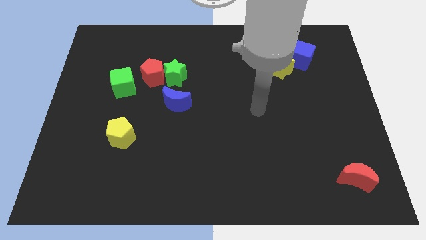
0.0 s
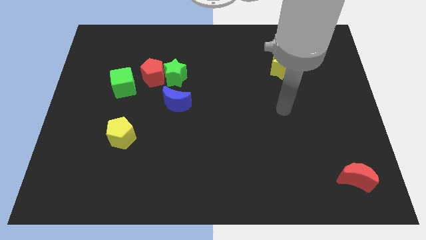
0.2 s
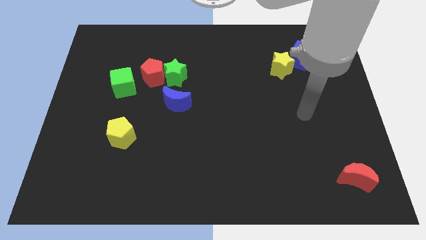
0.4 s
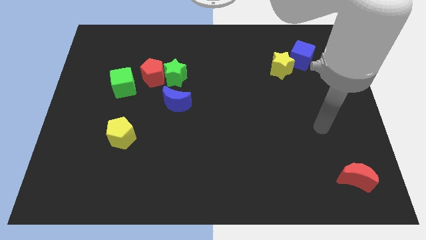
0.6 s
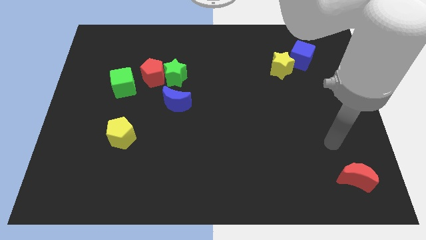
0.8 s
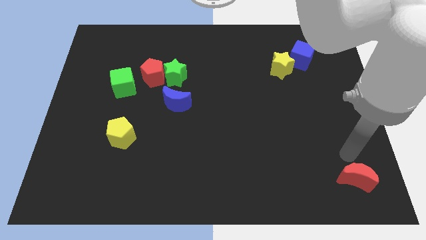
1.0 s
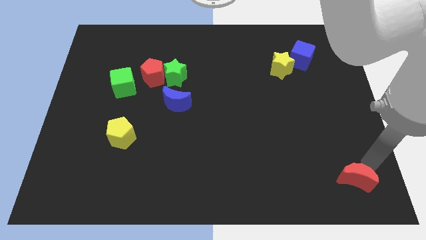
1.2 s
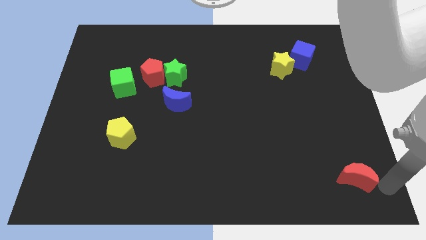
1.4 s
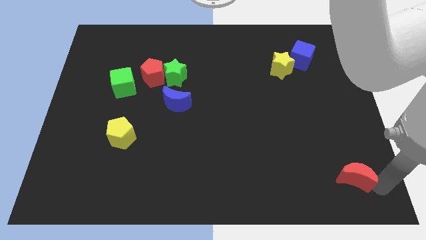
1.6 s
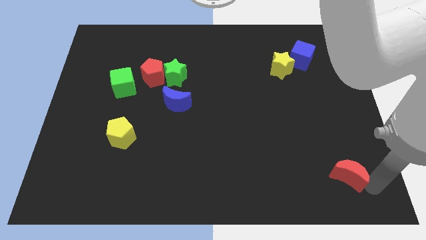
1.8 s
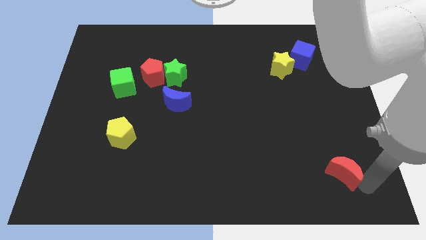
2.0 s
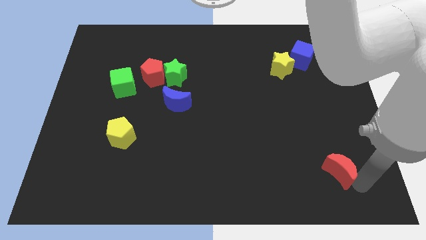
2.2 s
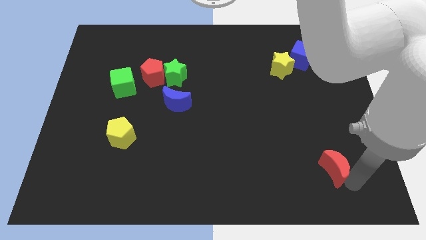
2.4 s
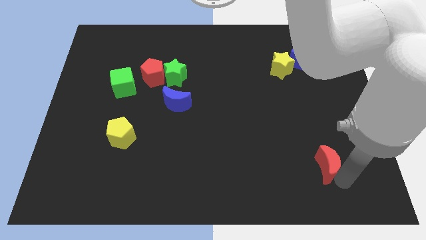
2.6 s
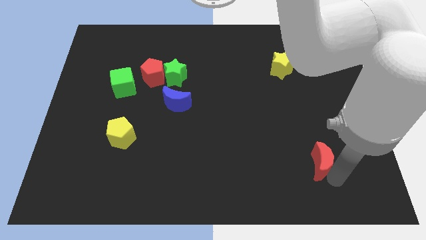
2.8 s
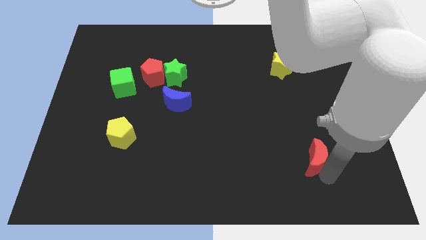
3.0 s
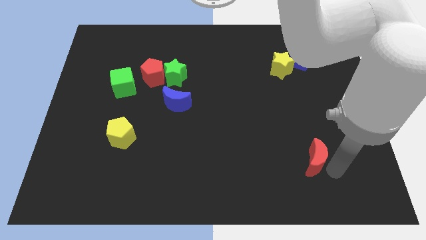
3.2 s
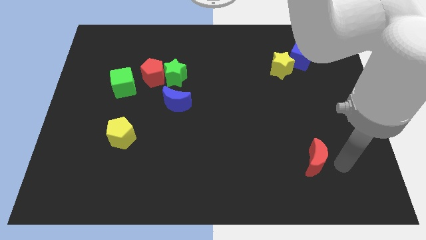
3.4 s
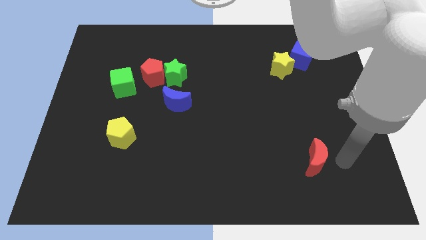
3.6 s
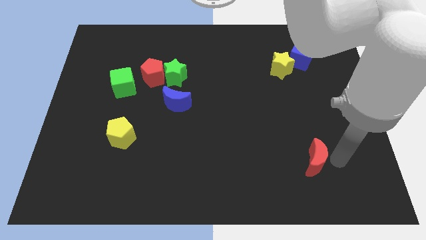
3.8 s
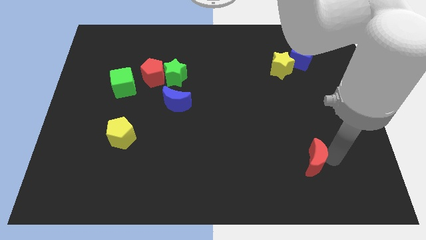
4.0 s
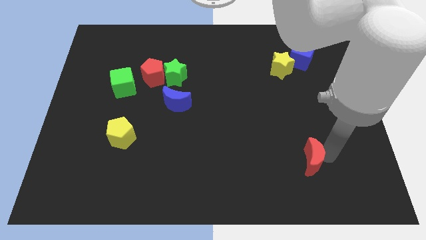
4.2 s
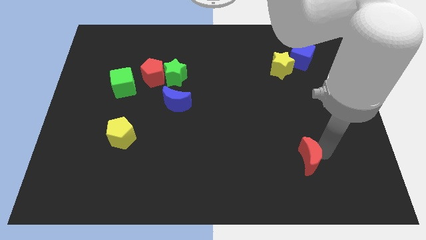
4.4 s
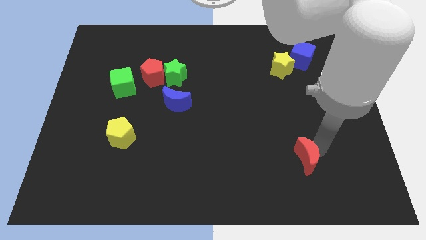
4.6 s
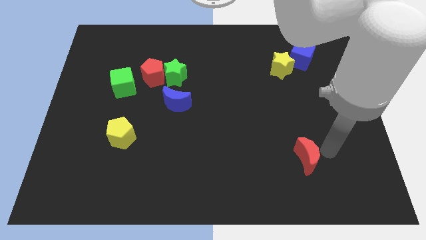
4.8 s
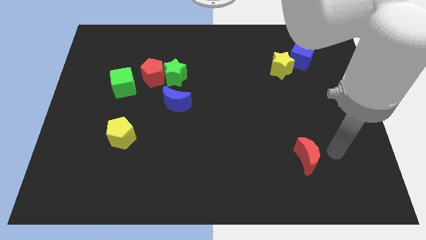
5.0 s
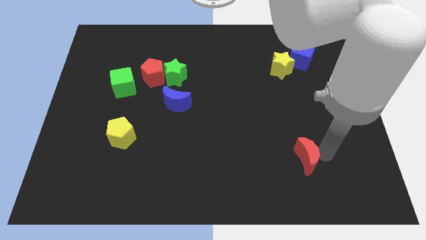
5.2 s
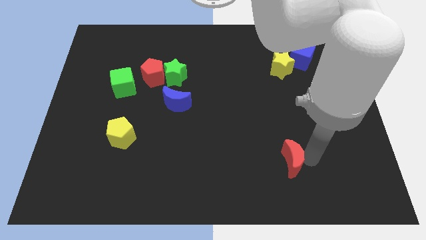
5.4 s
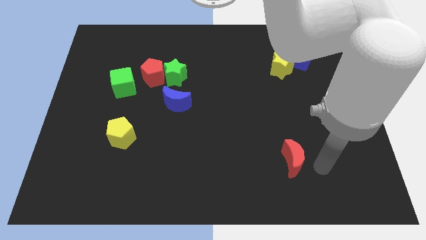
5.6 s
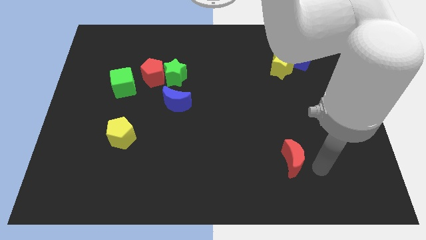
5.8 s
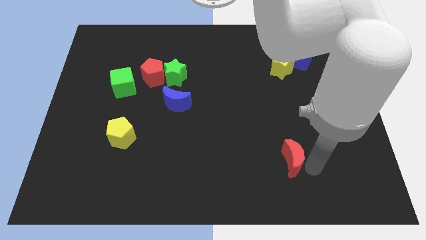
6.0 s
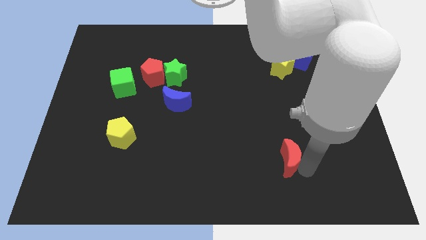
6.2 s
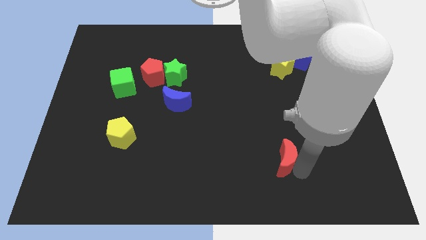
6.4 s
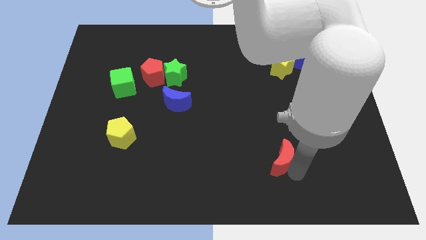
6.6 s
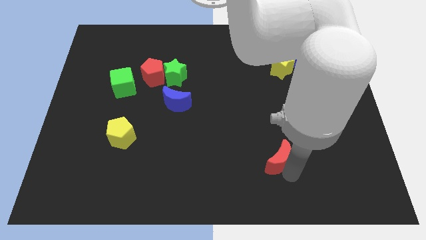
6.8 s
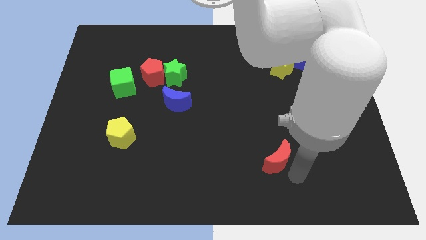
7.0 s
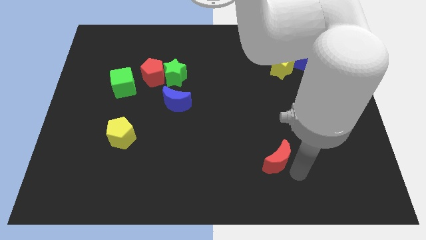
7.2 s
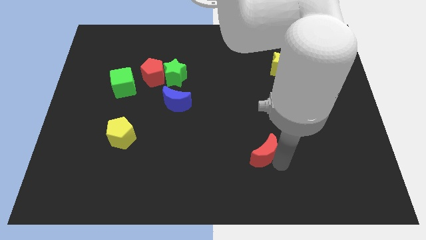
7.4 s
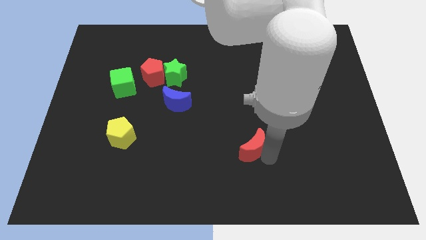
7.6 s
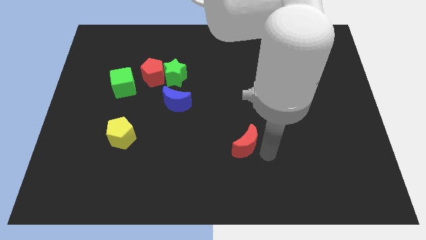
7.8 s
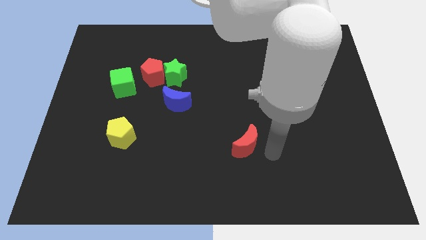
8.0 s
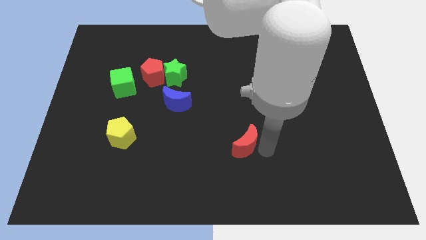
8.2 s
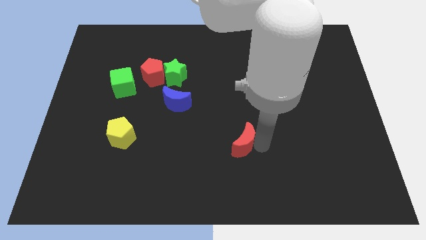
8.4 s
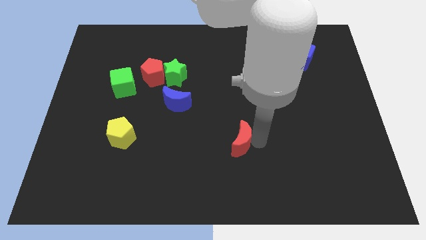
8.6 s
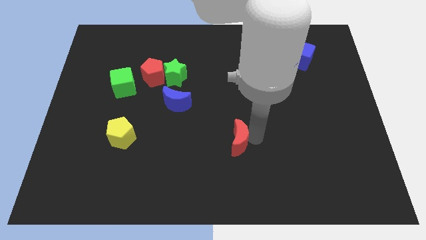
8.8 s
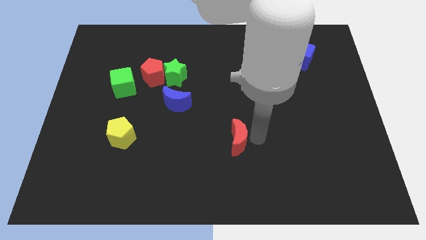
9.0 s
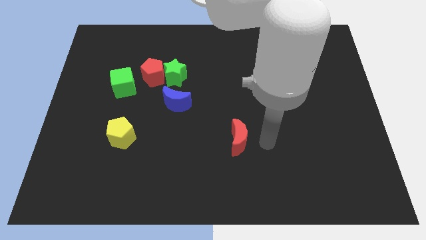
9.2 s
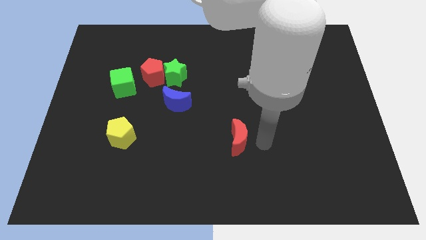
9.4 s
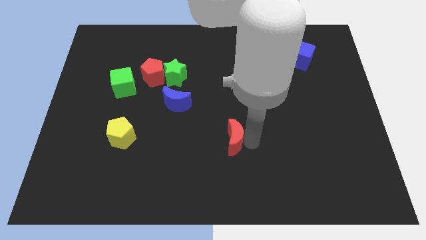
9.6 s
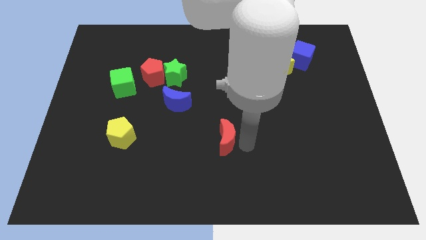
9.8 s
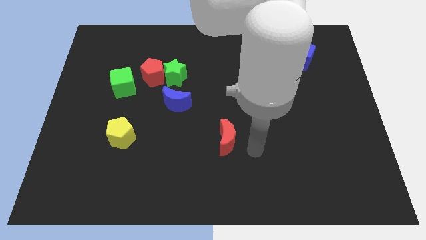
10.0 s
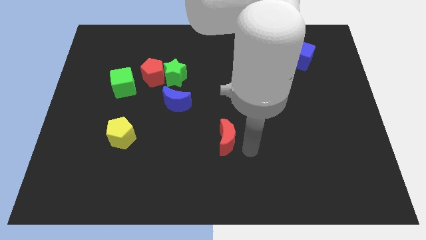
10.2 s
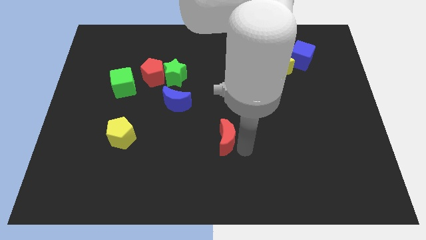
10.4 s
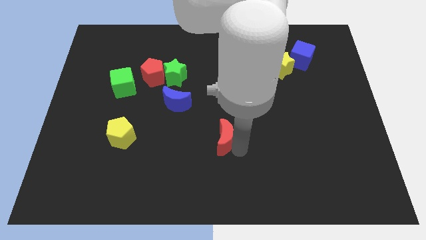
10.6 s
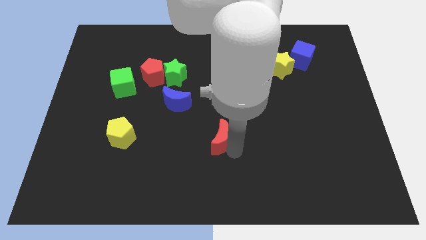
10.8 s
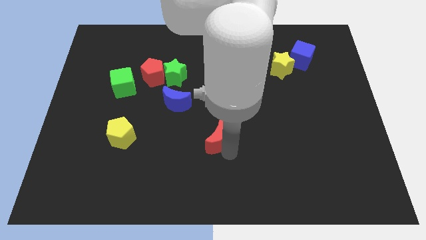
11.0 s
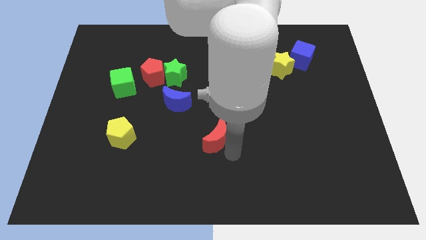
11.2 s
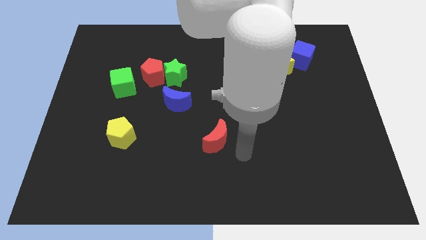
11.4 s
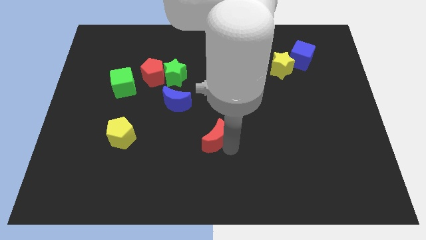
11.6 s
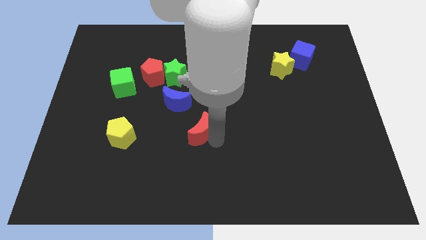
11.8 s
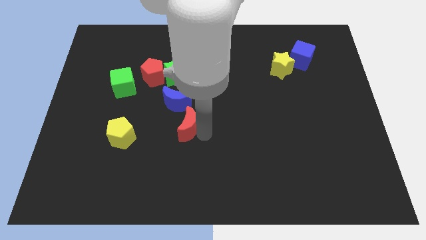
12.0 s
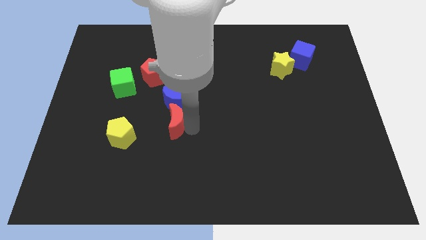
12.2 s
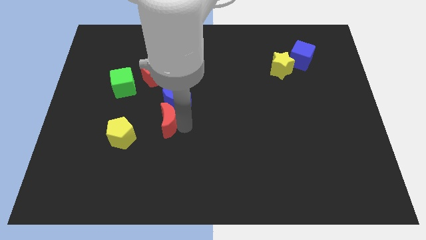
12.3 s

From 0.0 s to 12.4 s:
slide the red moon to the top right side of the yellow pentagon

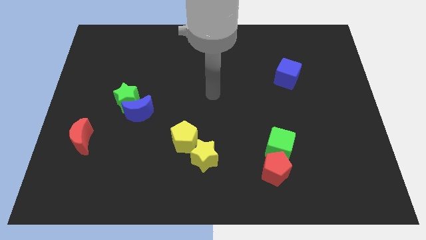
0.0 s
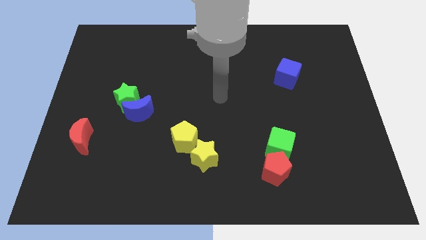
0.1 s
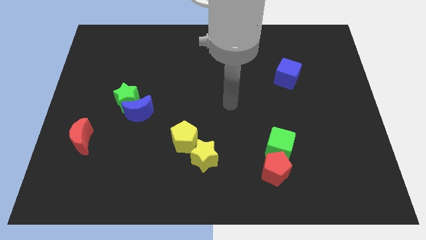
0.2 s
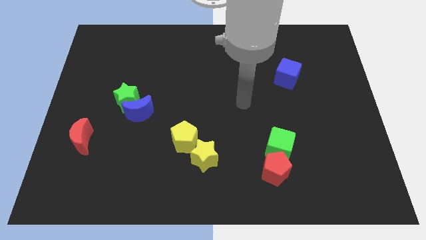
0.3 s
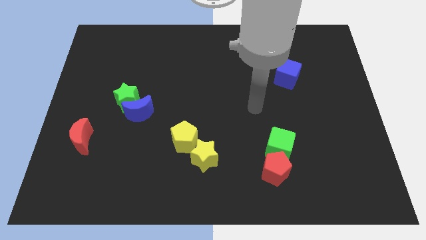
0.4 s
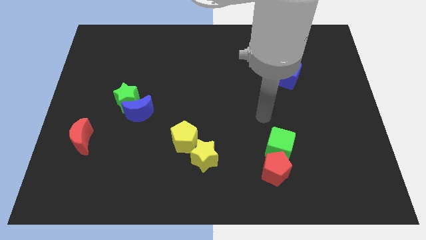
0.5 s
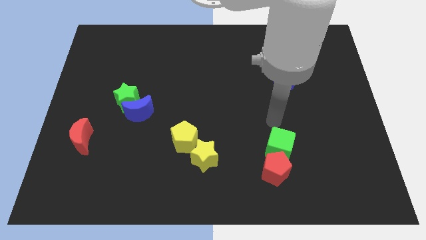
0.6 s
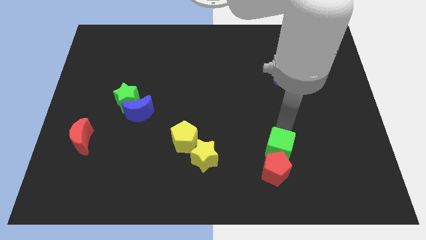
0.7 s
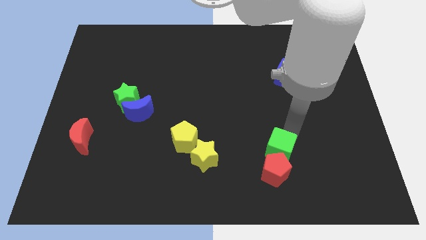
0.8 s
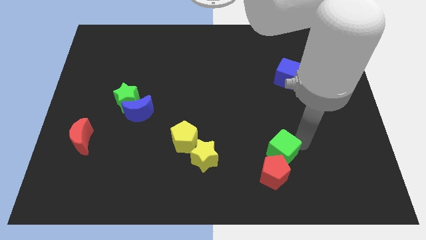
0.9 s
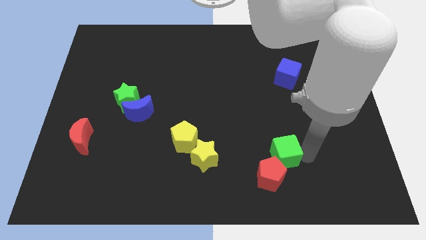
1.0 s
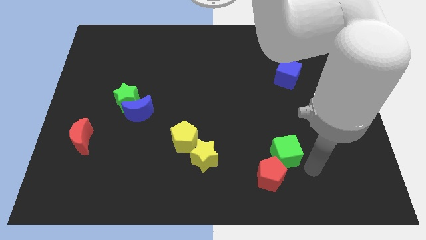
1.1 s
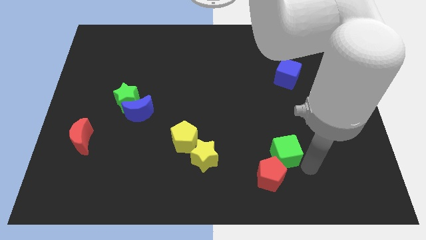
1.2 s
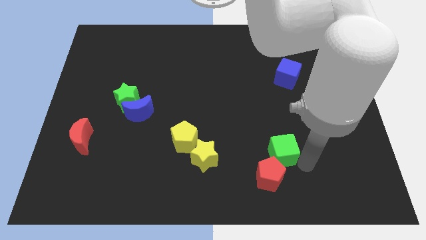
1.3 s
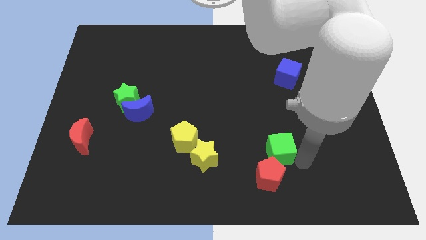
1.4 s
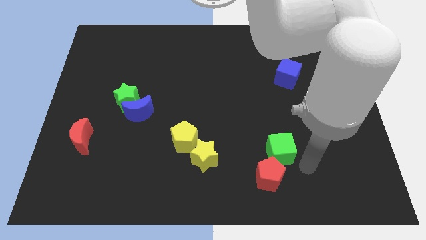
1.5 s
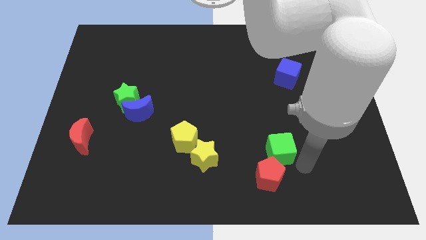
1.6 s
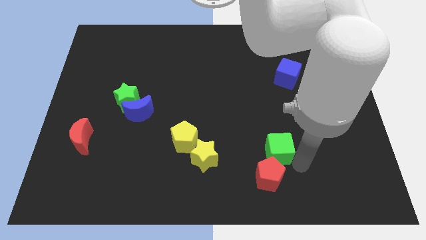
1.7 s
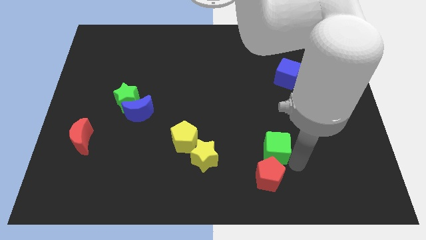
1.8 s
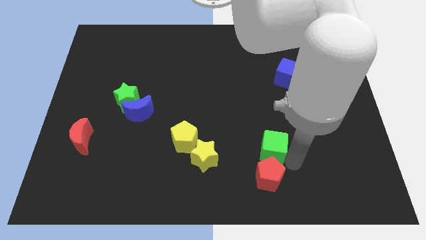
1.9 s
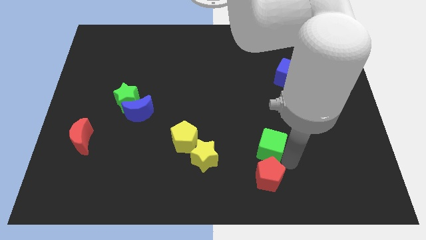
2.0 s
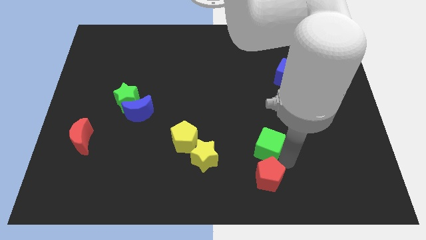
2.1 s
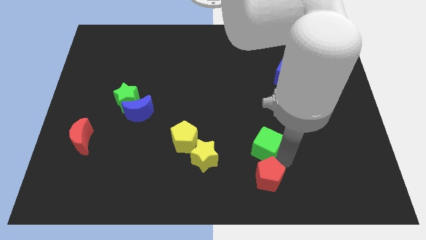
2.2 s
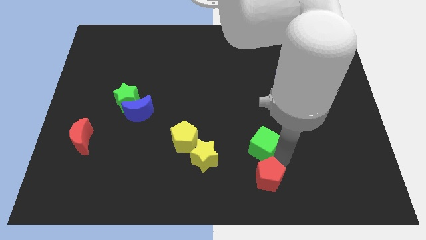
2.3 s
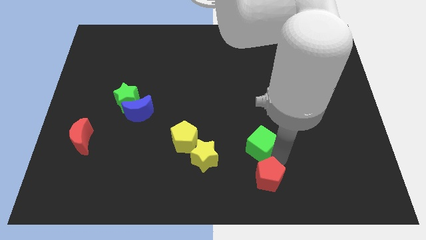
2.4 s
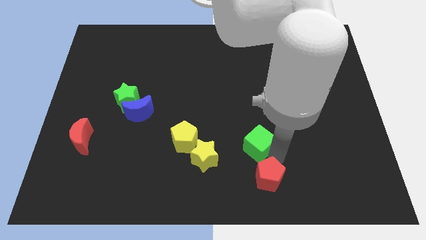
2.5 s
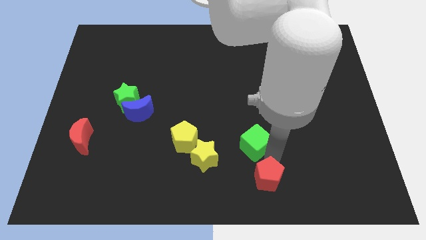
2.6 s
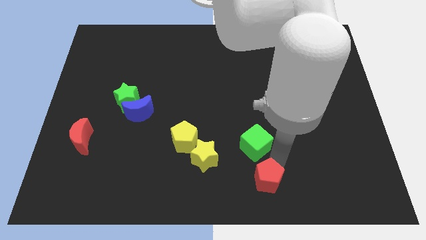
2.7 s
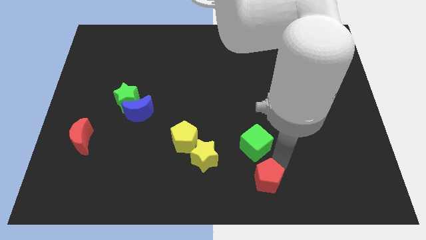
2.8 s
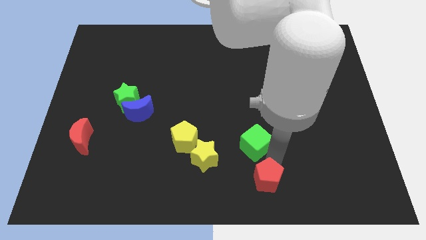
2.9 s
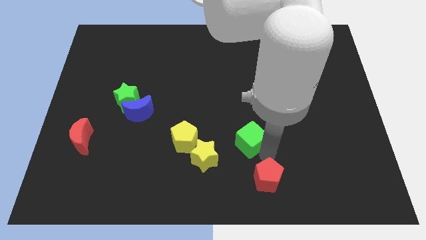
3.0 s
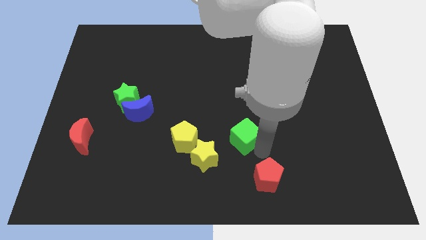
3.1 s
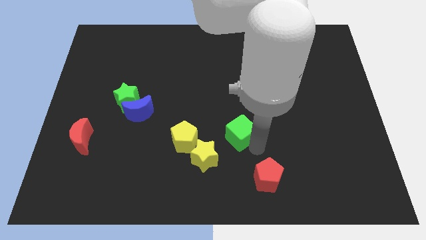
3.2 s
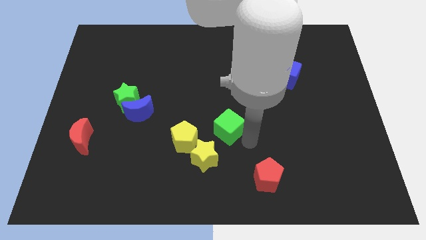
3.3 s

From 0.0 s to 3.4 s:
slide the green cube diagonally up and to the right of the yellow pentagon
